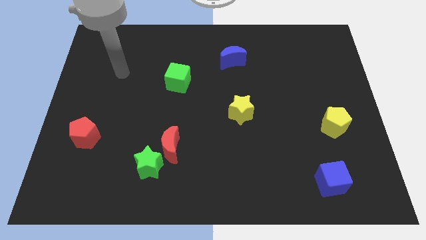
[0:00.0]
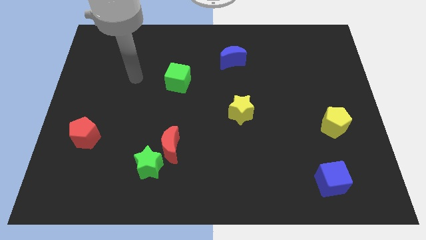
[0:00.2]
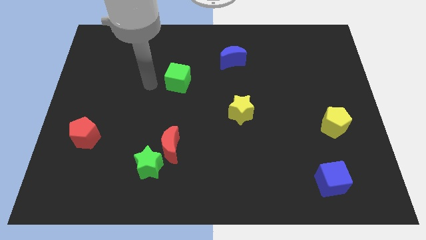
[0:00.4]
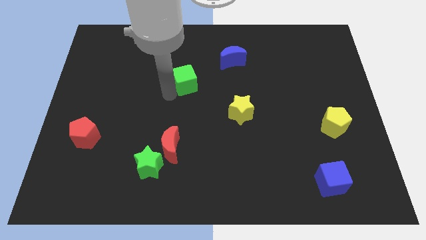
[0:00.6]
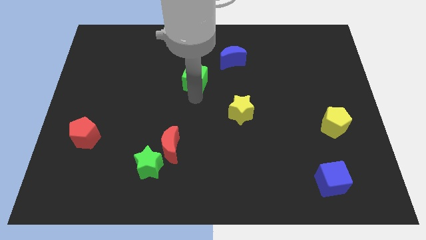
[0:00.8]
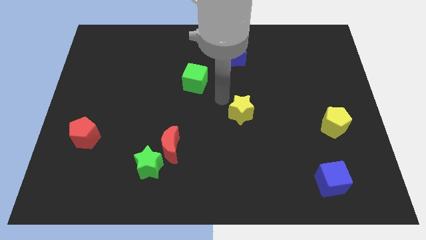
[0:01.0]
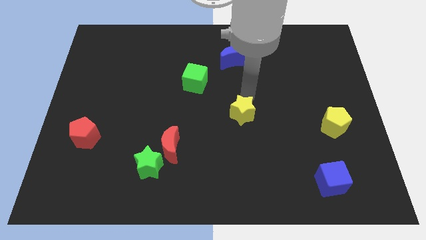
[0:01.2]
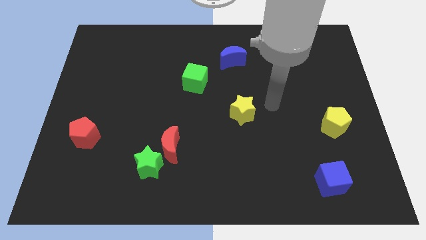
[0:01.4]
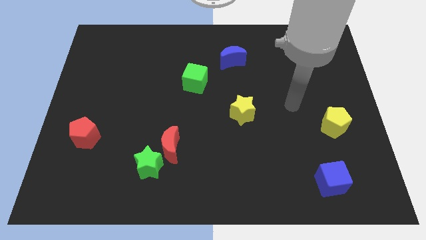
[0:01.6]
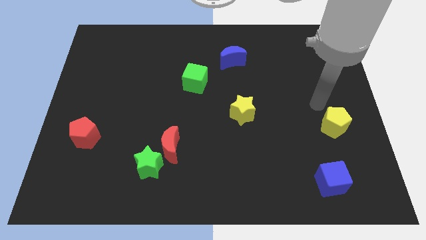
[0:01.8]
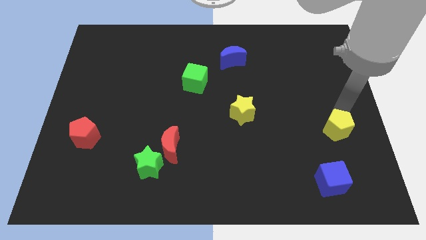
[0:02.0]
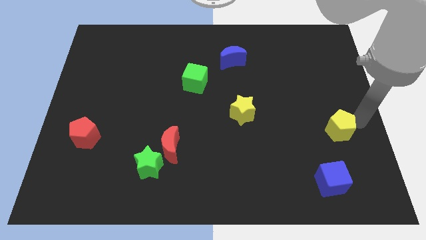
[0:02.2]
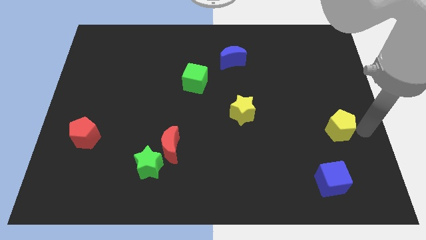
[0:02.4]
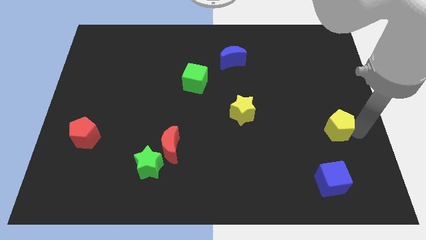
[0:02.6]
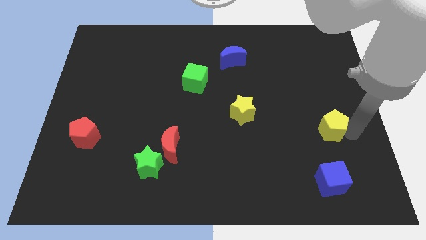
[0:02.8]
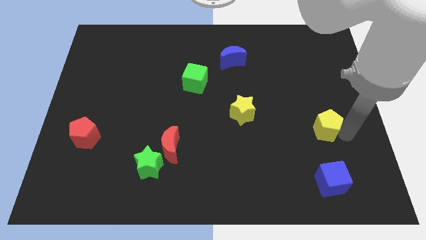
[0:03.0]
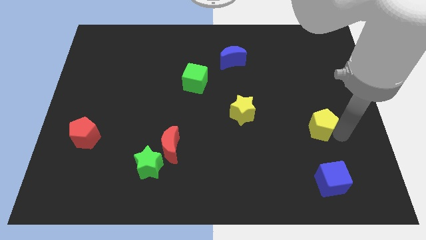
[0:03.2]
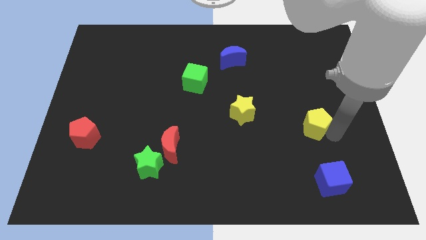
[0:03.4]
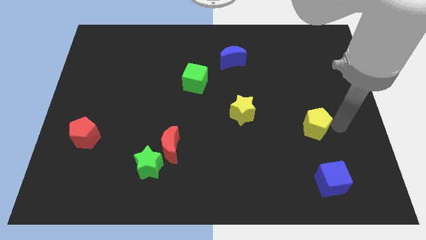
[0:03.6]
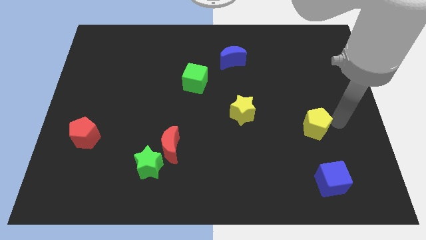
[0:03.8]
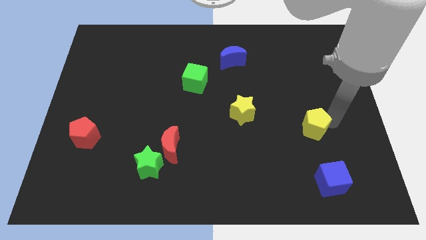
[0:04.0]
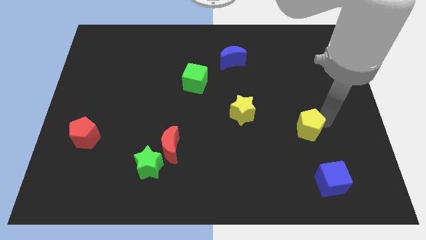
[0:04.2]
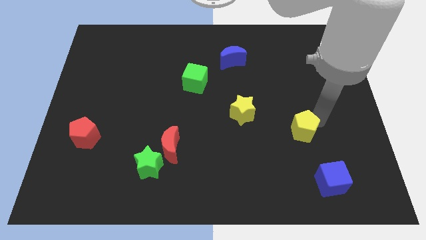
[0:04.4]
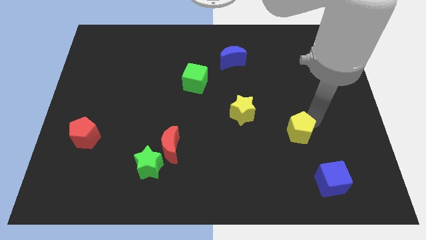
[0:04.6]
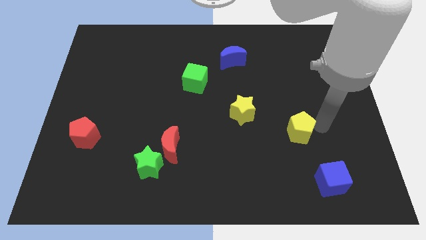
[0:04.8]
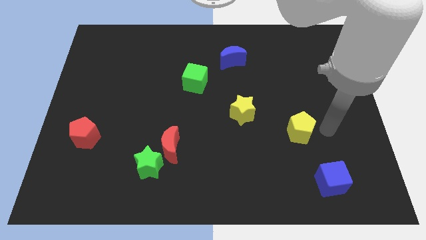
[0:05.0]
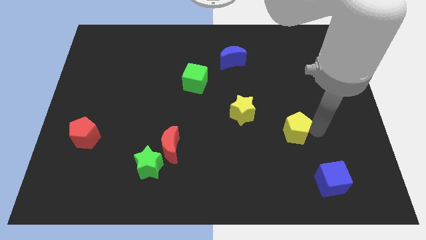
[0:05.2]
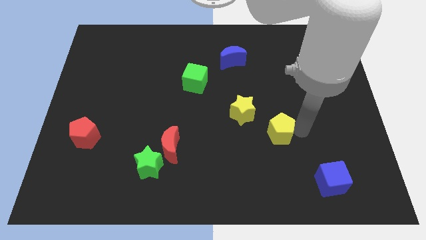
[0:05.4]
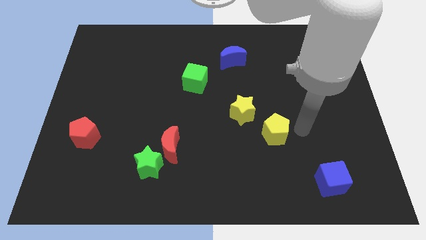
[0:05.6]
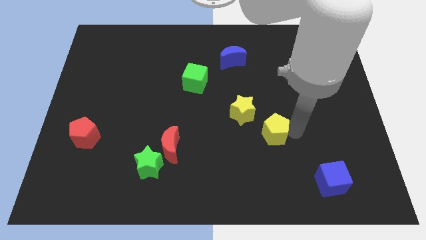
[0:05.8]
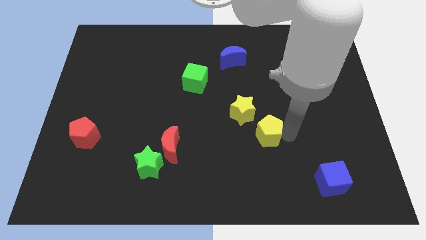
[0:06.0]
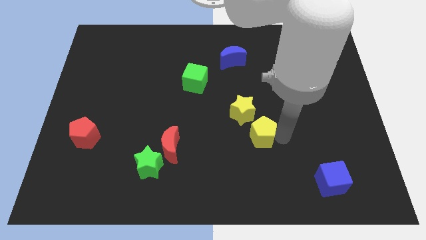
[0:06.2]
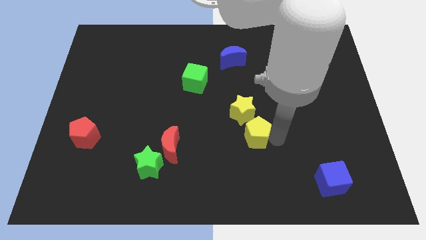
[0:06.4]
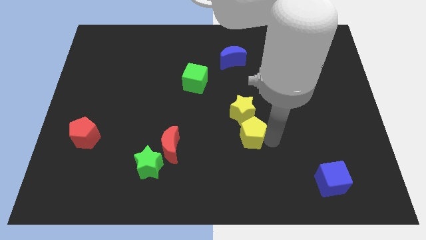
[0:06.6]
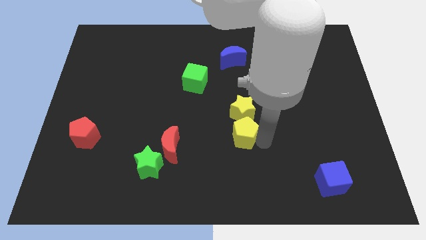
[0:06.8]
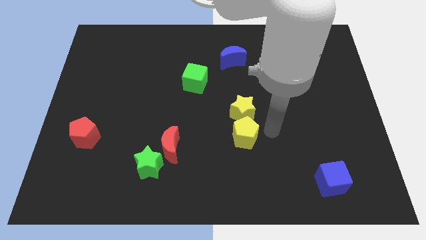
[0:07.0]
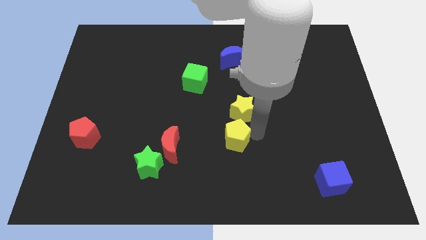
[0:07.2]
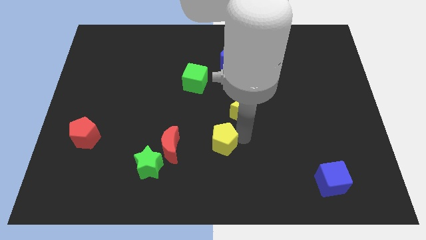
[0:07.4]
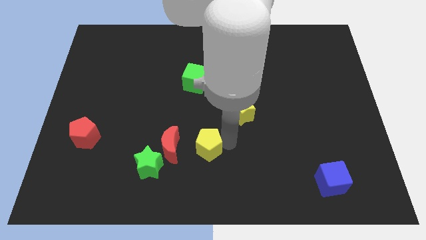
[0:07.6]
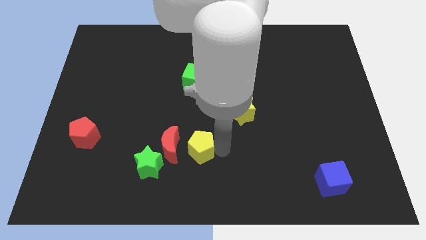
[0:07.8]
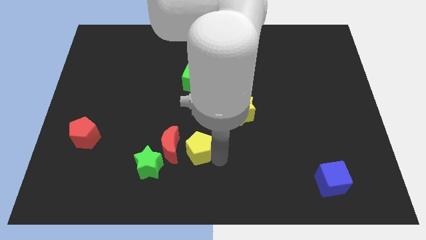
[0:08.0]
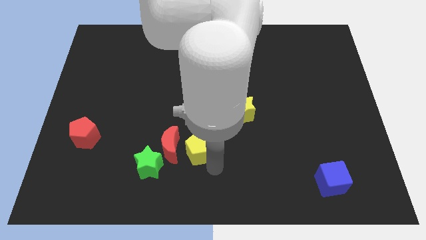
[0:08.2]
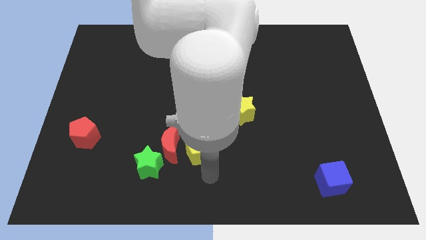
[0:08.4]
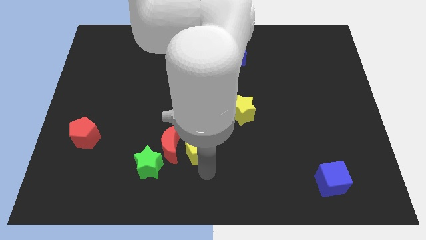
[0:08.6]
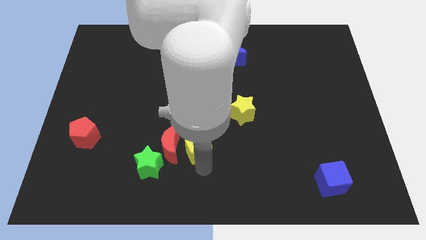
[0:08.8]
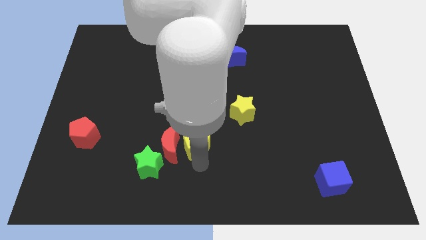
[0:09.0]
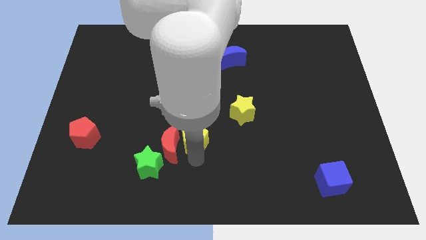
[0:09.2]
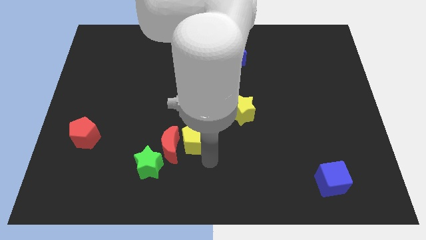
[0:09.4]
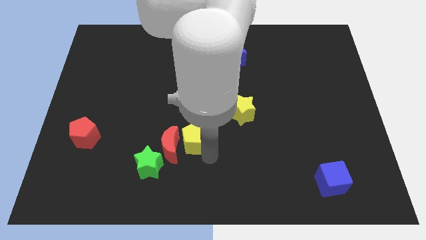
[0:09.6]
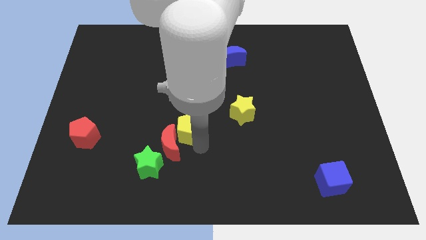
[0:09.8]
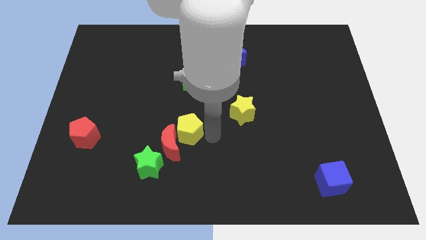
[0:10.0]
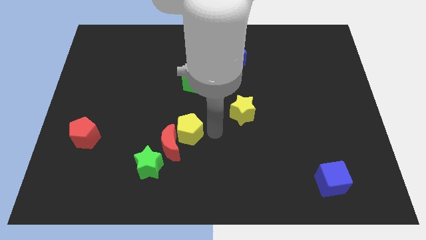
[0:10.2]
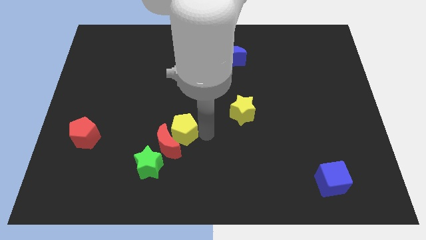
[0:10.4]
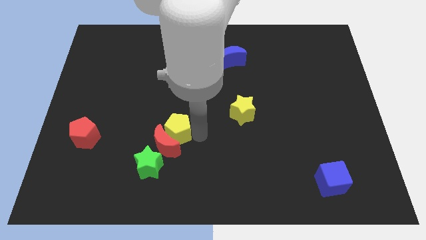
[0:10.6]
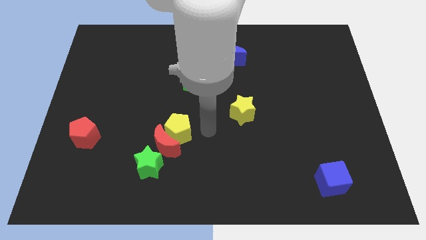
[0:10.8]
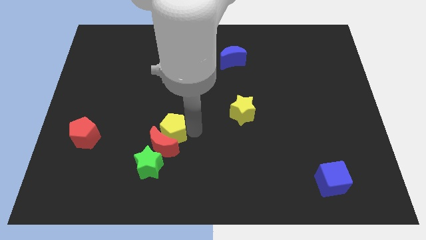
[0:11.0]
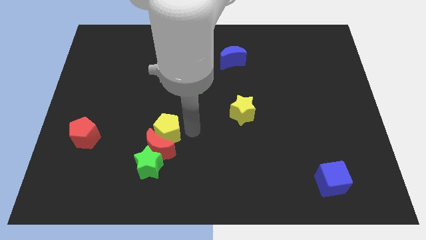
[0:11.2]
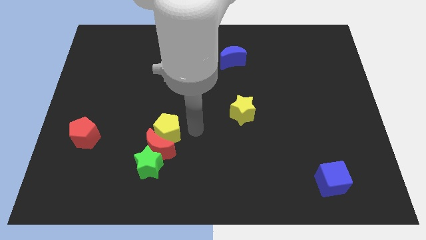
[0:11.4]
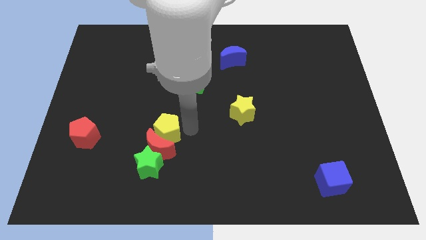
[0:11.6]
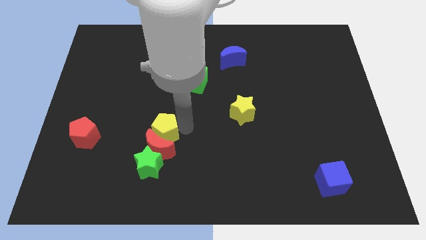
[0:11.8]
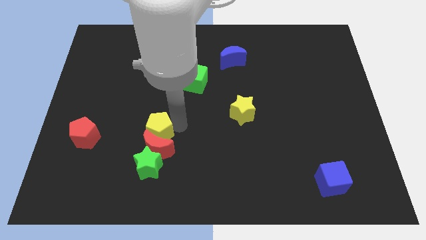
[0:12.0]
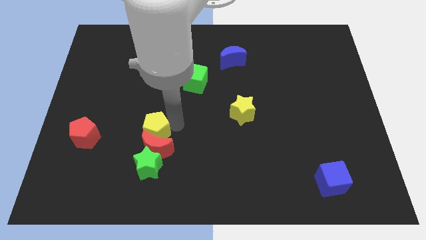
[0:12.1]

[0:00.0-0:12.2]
slide the yellow pentagon right of the red pentagon

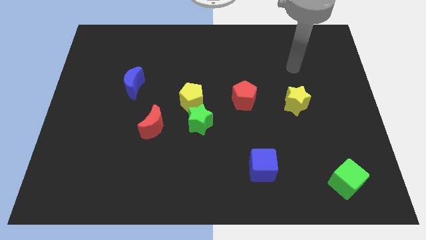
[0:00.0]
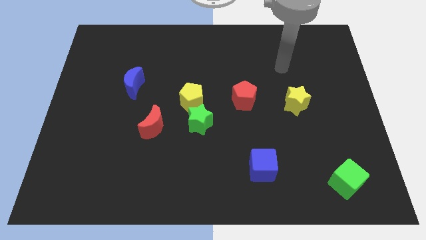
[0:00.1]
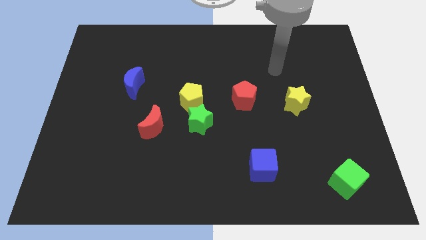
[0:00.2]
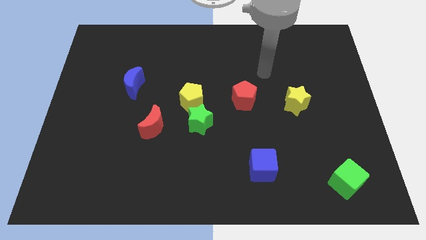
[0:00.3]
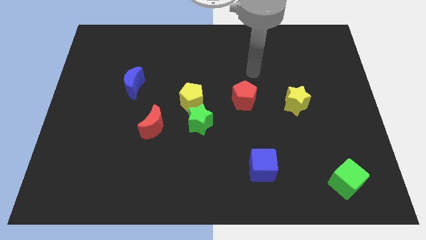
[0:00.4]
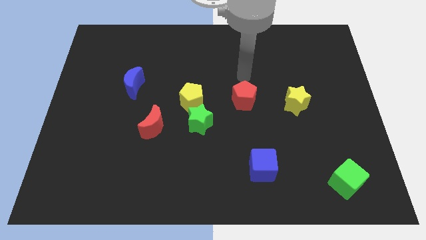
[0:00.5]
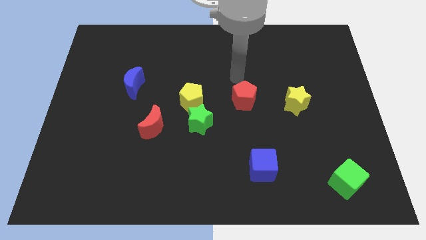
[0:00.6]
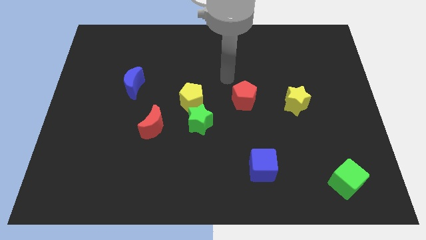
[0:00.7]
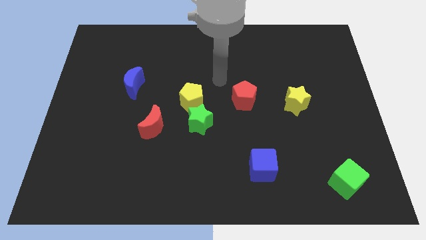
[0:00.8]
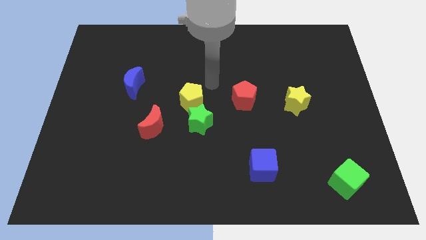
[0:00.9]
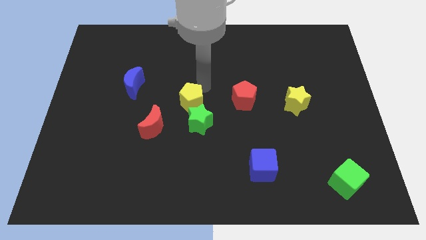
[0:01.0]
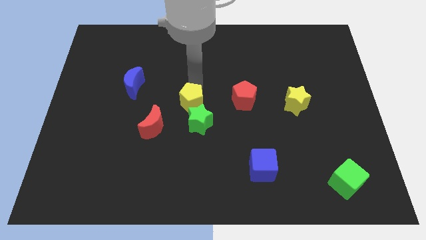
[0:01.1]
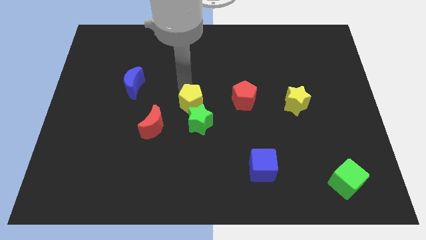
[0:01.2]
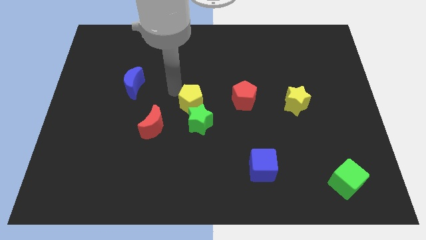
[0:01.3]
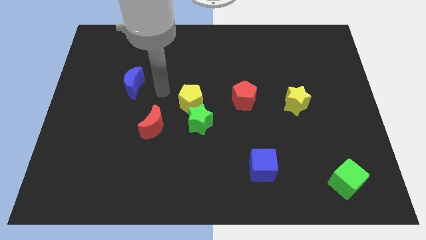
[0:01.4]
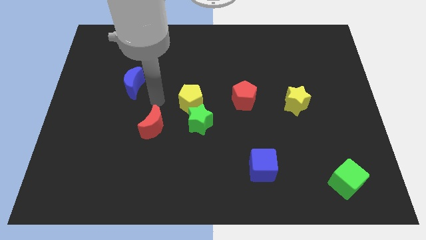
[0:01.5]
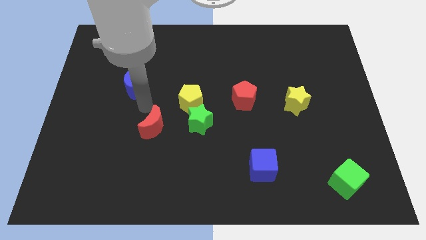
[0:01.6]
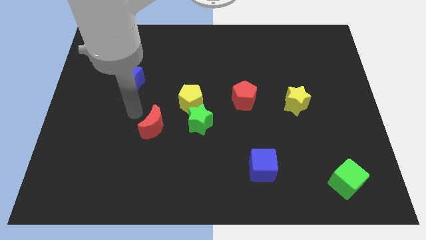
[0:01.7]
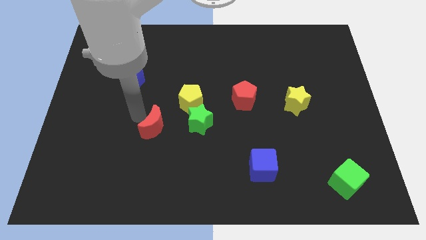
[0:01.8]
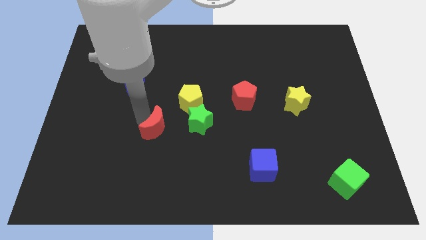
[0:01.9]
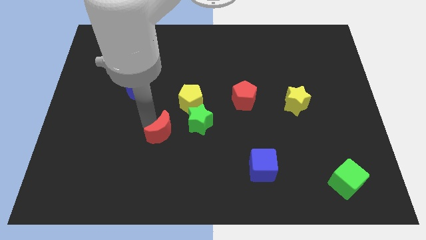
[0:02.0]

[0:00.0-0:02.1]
move the red moon to the bottom left side of the green star
